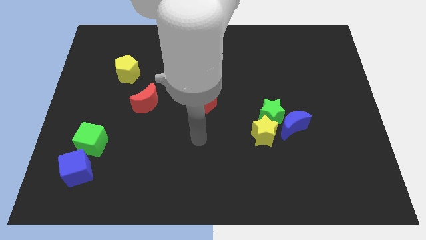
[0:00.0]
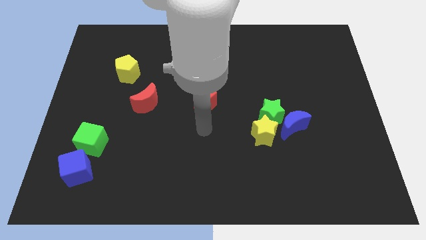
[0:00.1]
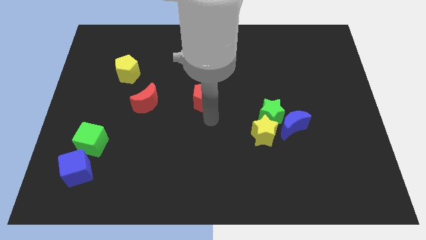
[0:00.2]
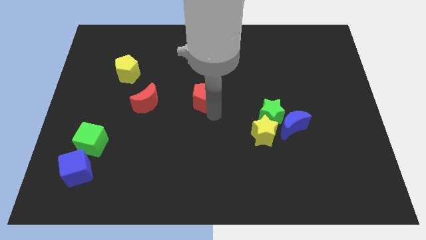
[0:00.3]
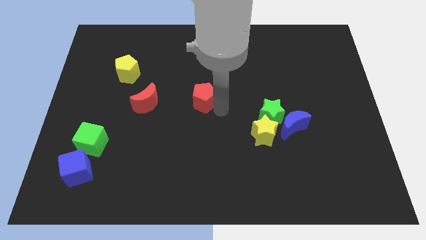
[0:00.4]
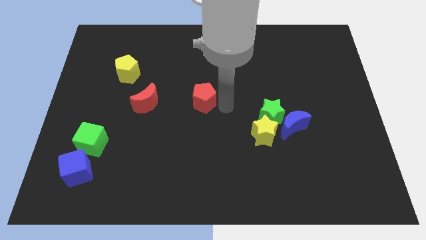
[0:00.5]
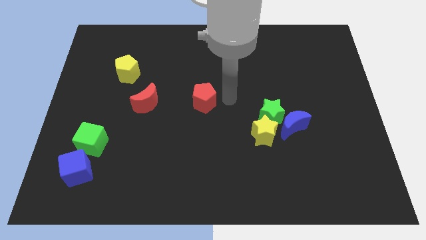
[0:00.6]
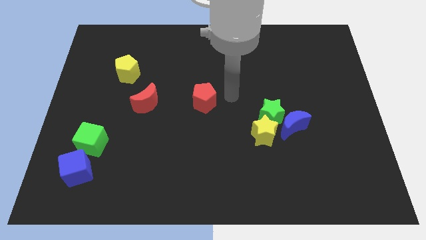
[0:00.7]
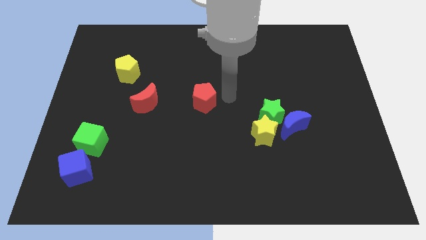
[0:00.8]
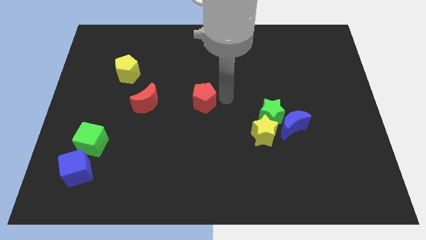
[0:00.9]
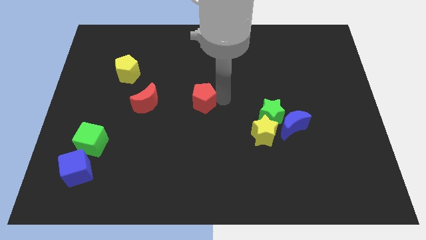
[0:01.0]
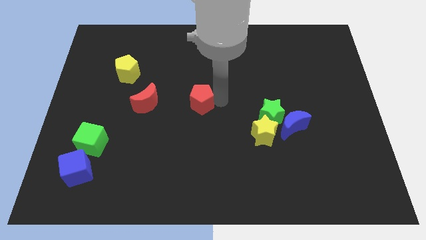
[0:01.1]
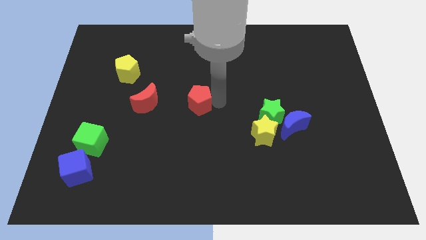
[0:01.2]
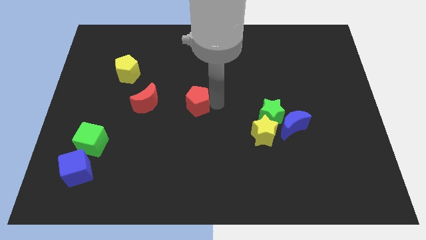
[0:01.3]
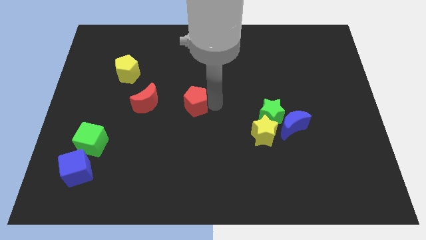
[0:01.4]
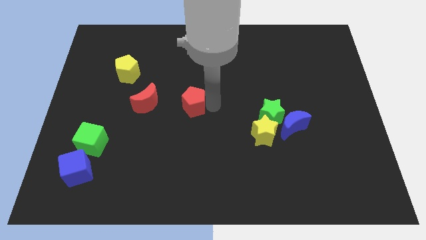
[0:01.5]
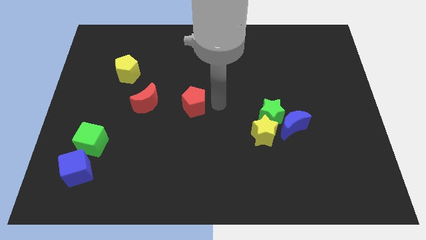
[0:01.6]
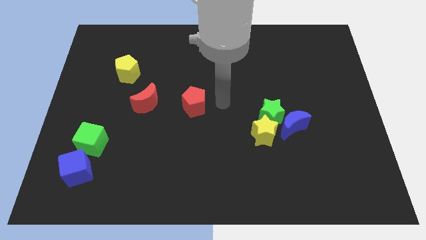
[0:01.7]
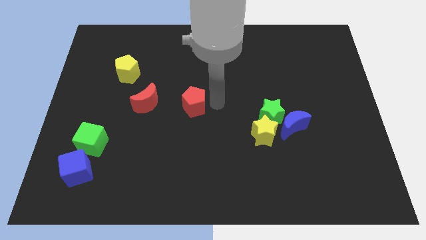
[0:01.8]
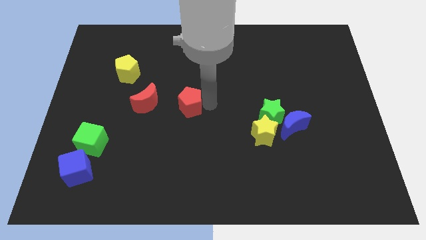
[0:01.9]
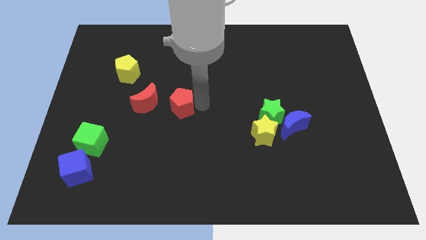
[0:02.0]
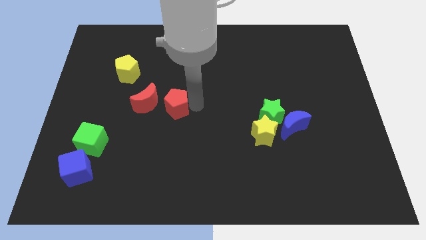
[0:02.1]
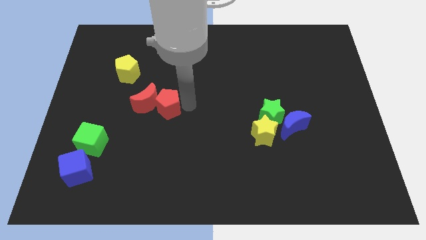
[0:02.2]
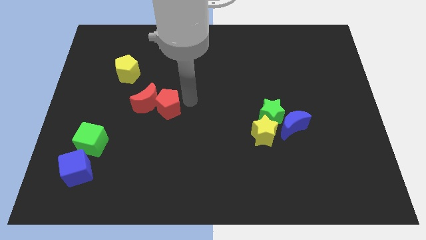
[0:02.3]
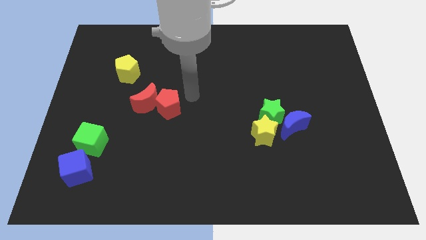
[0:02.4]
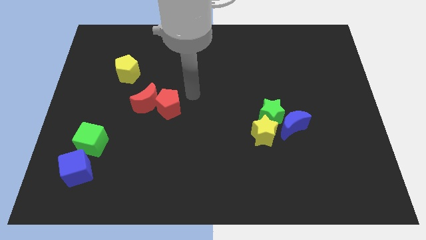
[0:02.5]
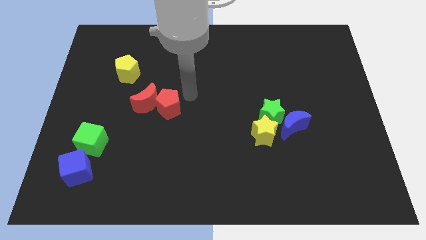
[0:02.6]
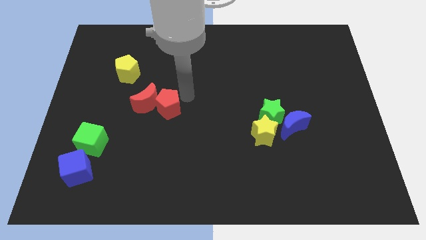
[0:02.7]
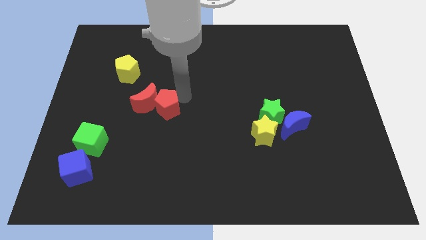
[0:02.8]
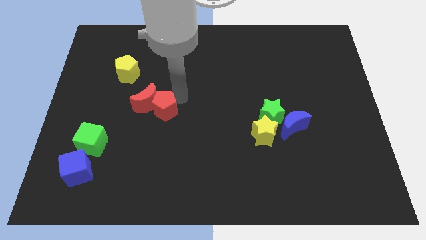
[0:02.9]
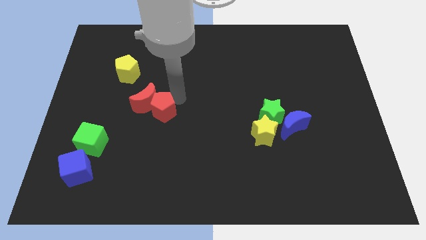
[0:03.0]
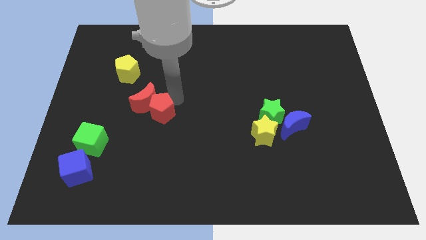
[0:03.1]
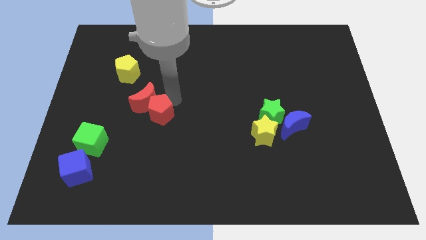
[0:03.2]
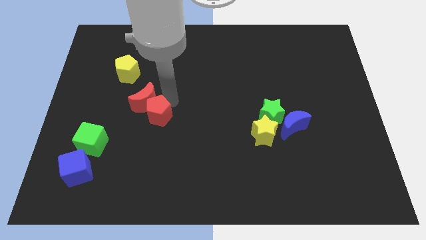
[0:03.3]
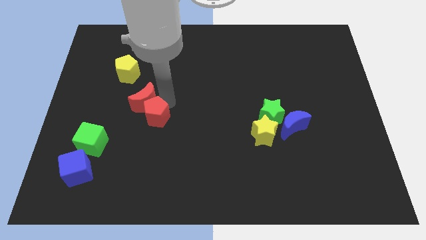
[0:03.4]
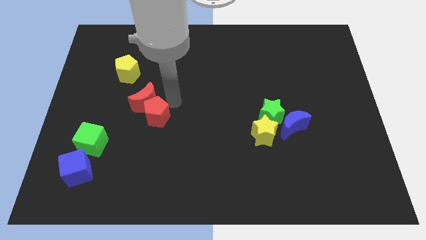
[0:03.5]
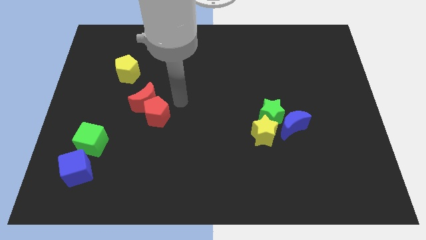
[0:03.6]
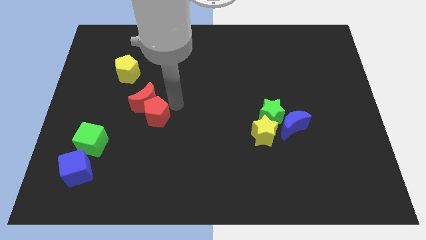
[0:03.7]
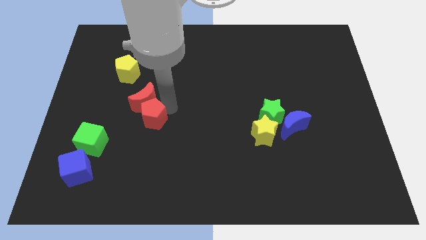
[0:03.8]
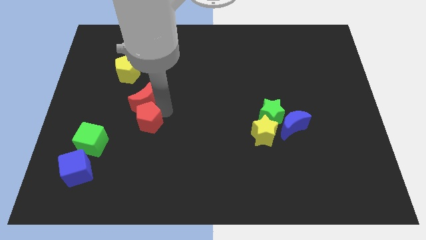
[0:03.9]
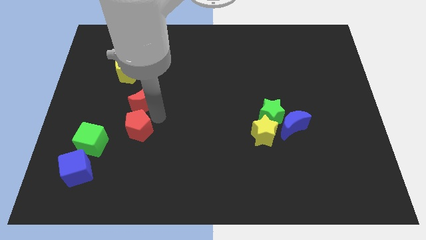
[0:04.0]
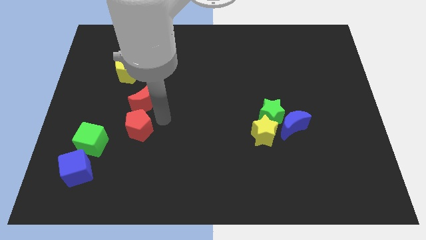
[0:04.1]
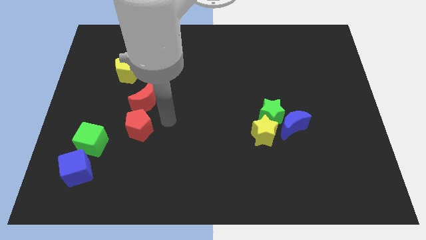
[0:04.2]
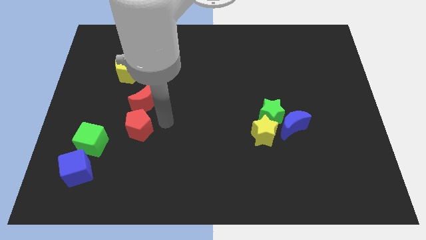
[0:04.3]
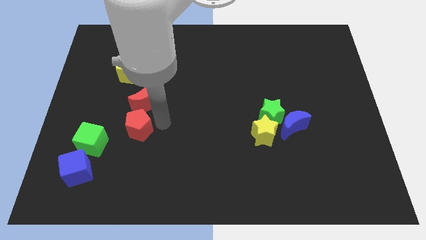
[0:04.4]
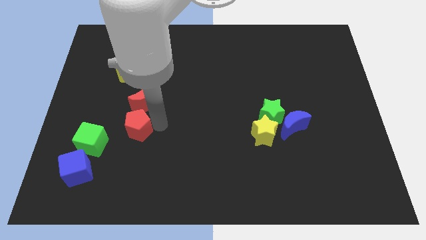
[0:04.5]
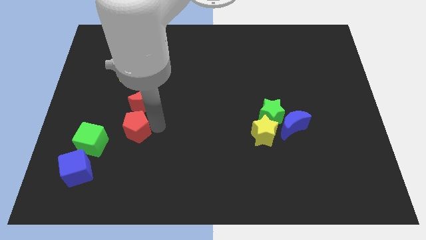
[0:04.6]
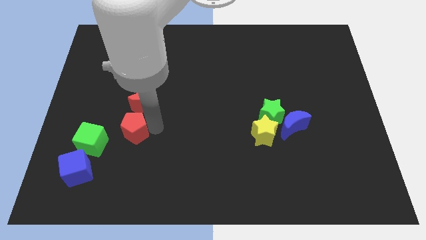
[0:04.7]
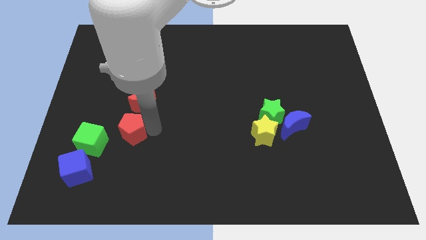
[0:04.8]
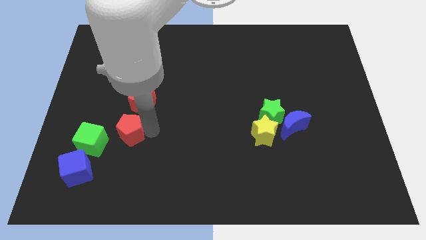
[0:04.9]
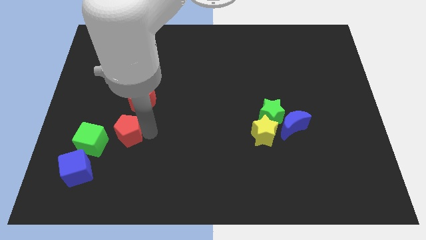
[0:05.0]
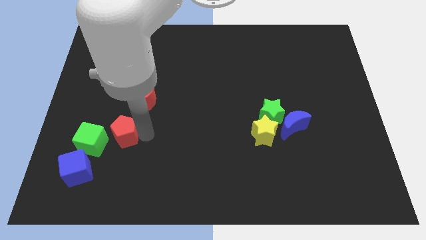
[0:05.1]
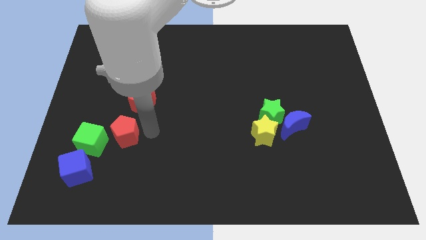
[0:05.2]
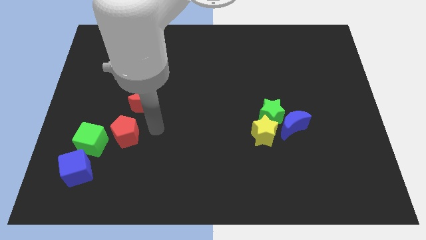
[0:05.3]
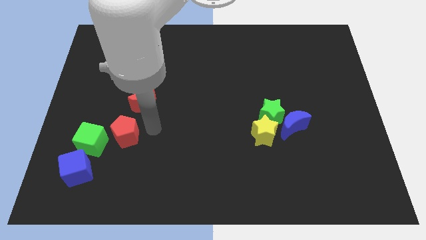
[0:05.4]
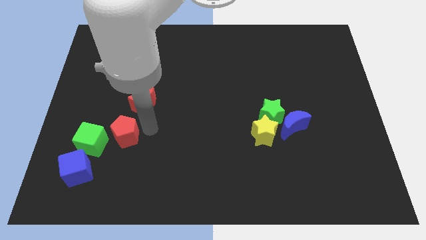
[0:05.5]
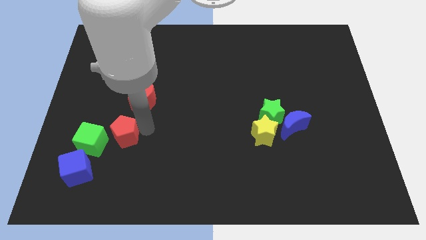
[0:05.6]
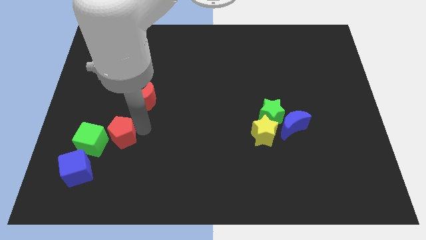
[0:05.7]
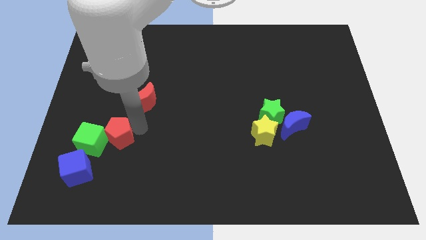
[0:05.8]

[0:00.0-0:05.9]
put the red pentagon towards the green cube
